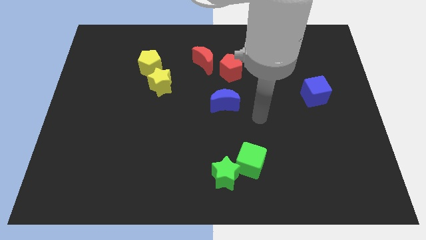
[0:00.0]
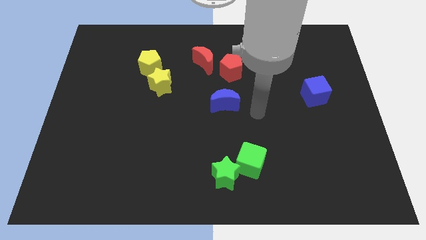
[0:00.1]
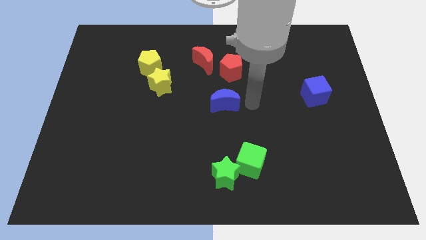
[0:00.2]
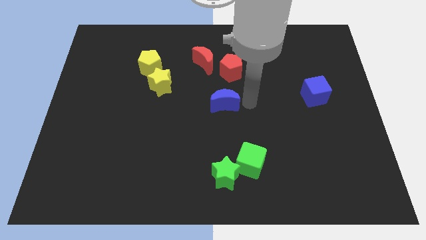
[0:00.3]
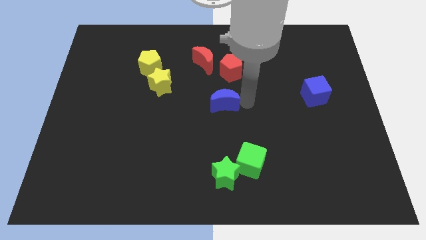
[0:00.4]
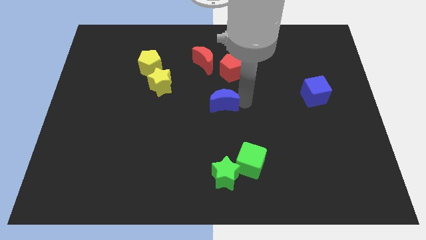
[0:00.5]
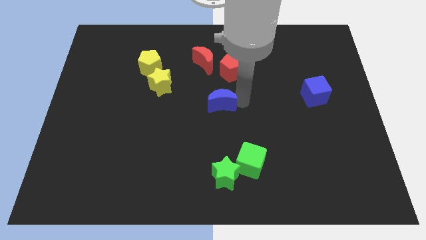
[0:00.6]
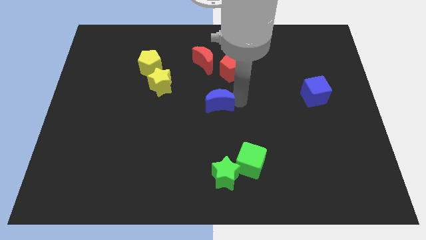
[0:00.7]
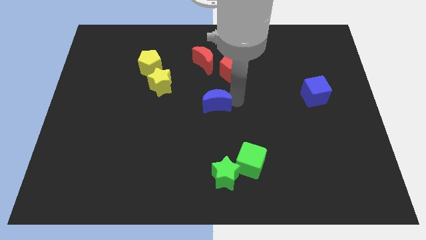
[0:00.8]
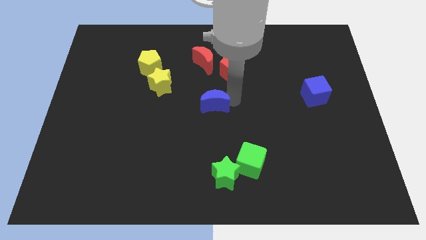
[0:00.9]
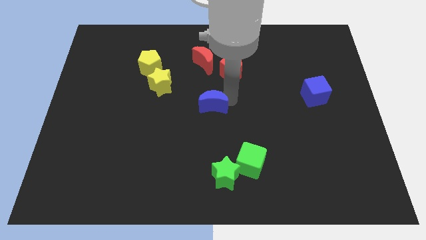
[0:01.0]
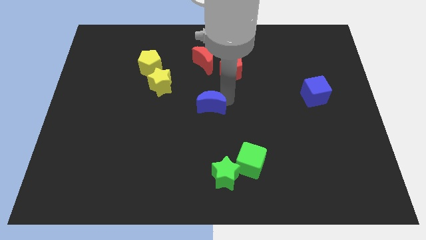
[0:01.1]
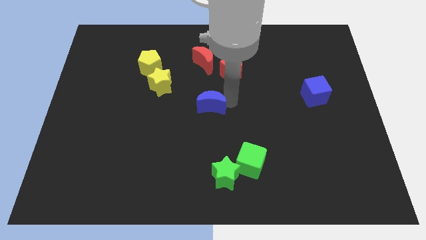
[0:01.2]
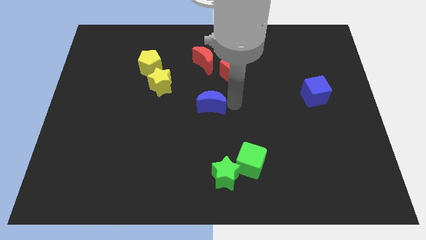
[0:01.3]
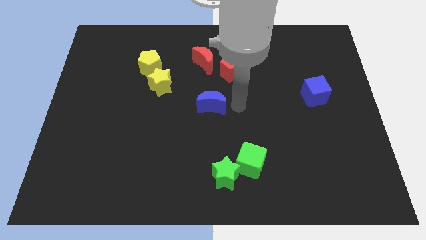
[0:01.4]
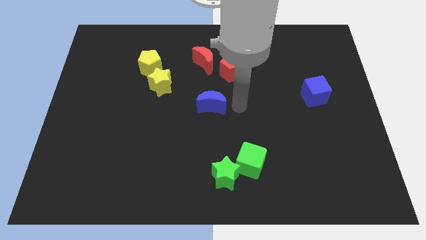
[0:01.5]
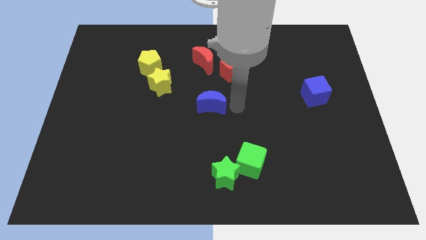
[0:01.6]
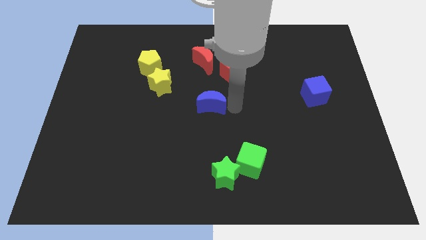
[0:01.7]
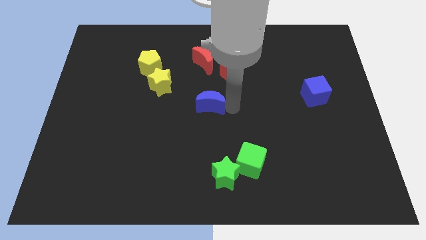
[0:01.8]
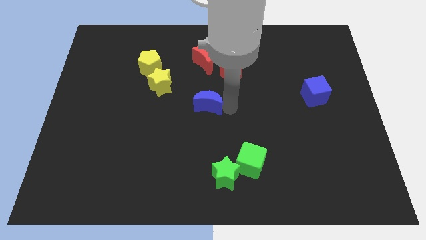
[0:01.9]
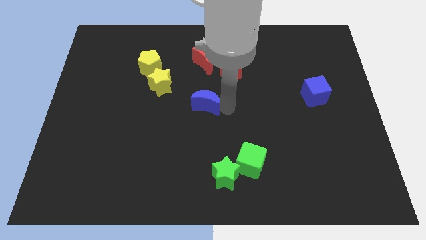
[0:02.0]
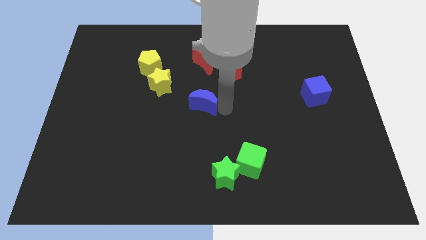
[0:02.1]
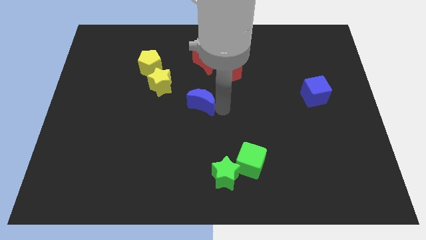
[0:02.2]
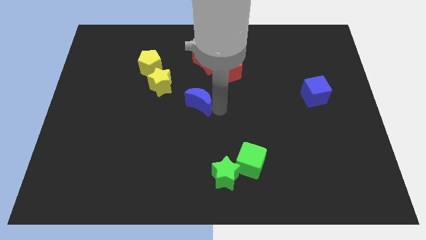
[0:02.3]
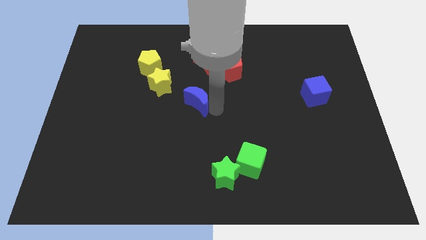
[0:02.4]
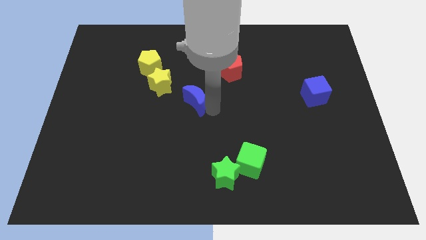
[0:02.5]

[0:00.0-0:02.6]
slightly push the blue moon left

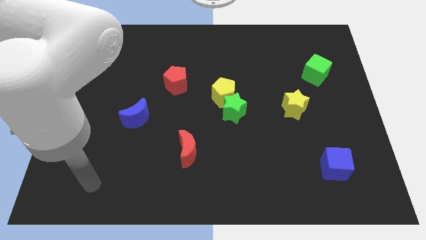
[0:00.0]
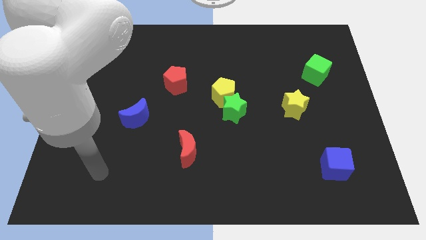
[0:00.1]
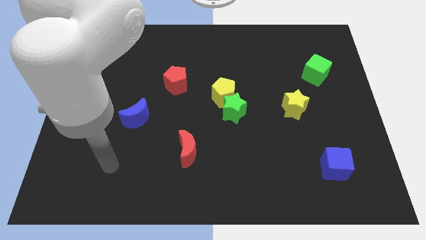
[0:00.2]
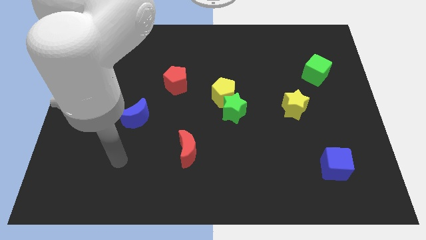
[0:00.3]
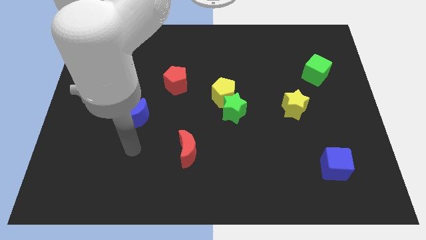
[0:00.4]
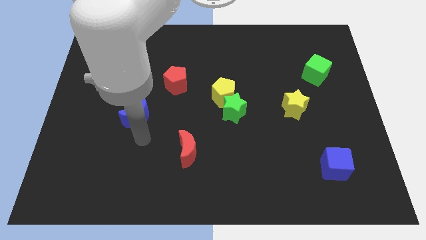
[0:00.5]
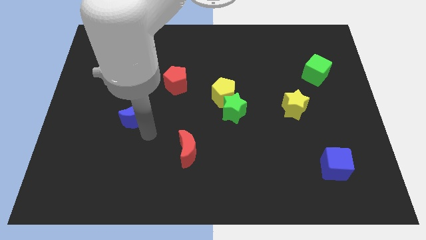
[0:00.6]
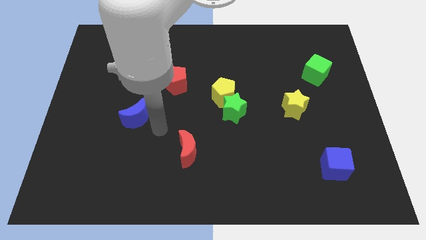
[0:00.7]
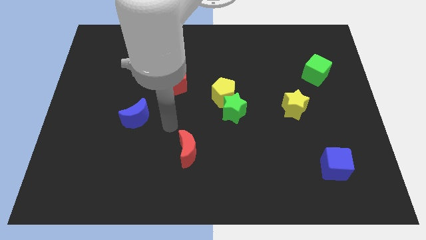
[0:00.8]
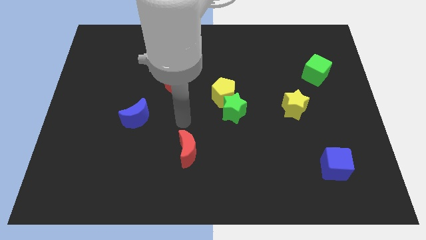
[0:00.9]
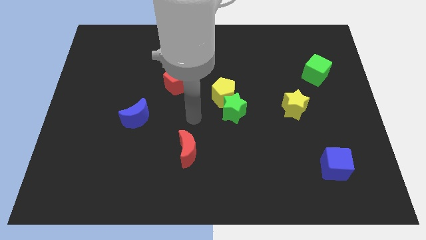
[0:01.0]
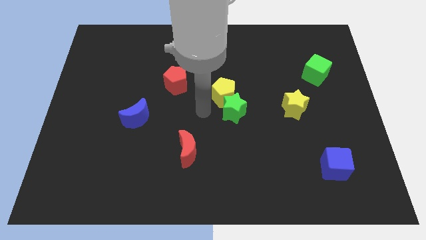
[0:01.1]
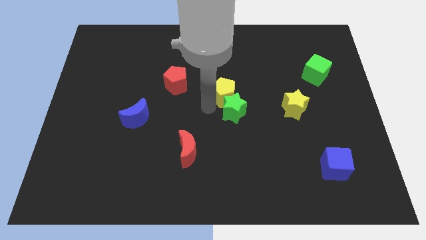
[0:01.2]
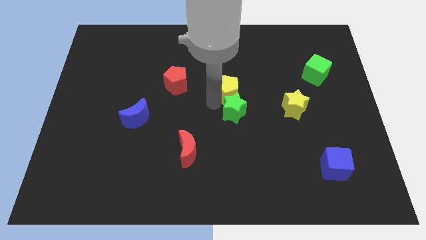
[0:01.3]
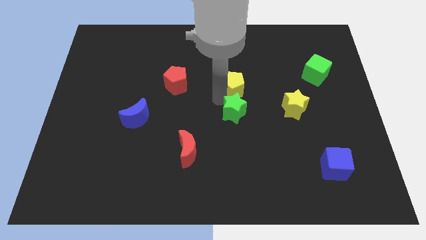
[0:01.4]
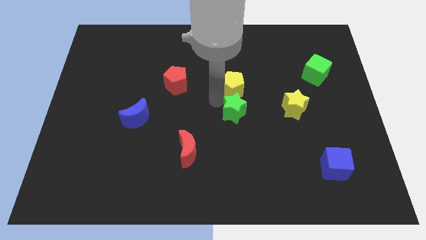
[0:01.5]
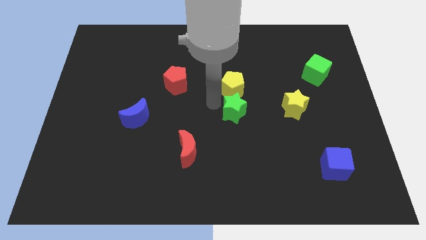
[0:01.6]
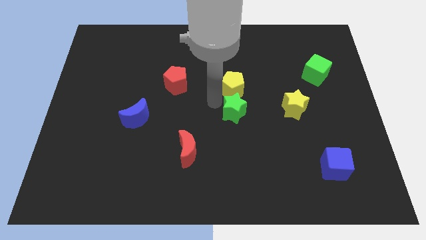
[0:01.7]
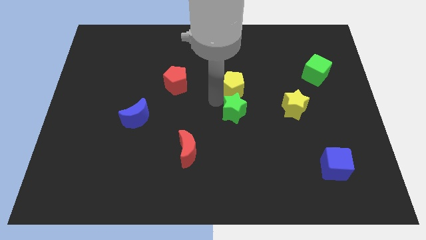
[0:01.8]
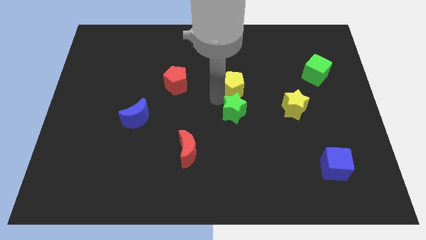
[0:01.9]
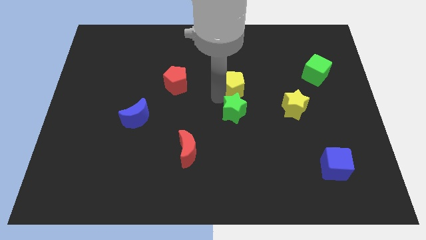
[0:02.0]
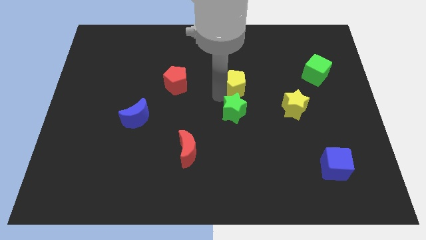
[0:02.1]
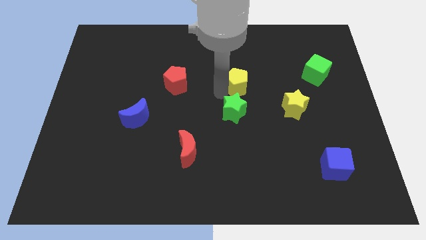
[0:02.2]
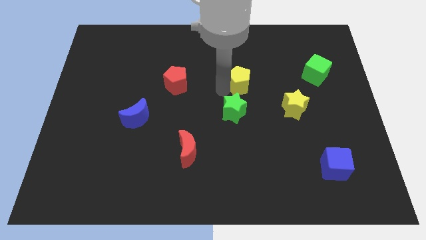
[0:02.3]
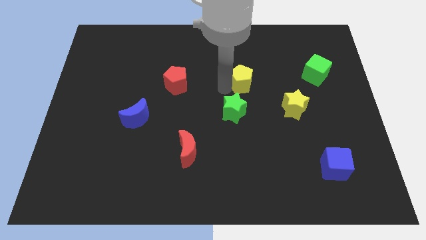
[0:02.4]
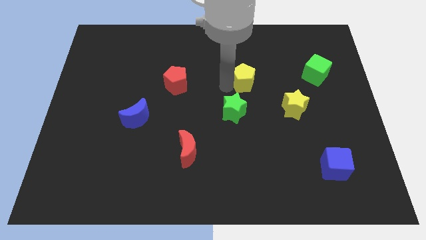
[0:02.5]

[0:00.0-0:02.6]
slightly move the yellow pentagon up and then right

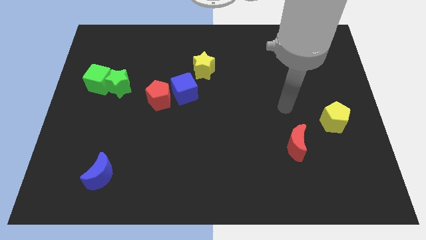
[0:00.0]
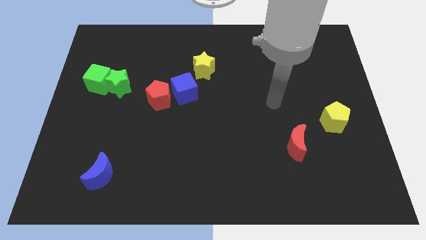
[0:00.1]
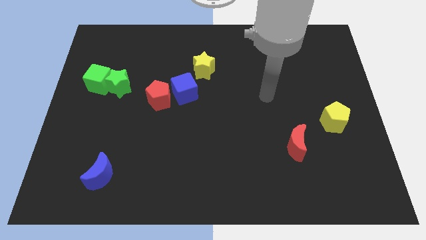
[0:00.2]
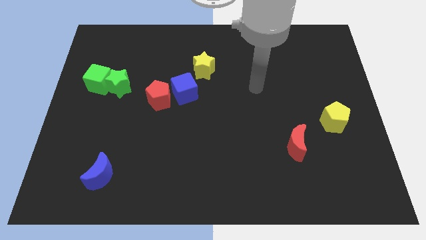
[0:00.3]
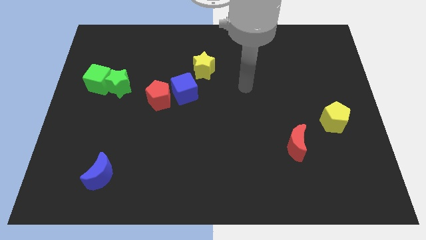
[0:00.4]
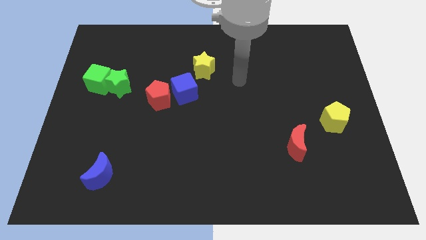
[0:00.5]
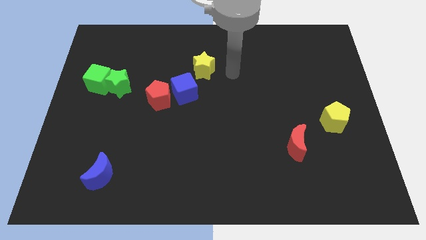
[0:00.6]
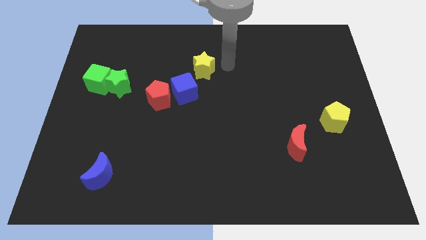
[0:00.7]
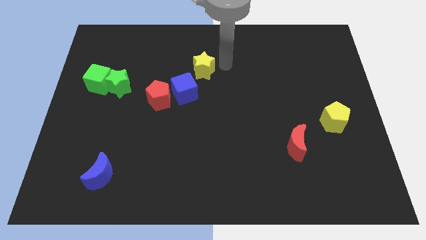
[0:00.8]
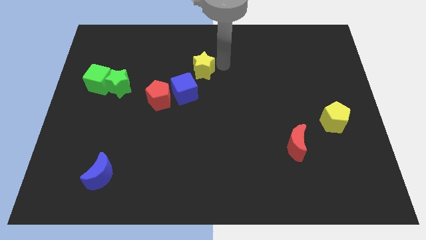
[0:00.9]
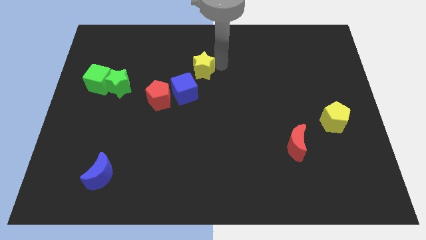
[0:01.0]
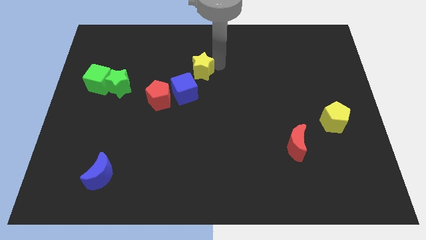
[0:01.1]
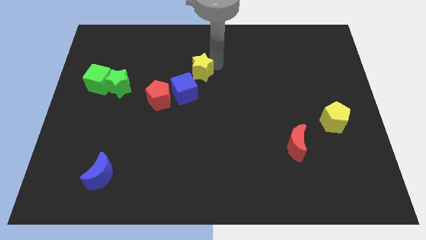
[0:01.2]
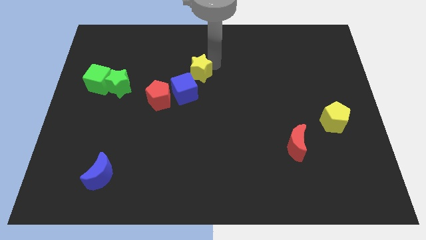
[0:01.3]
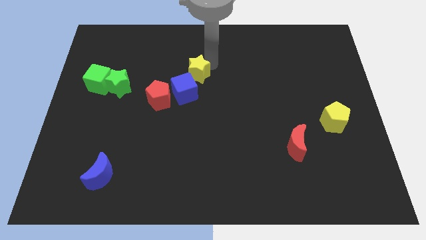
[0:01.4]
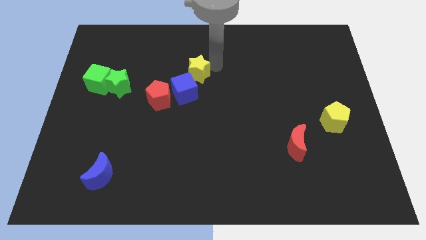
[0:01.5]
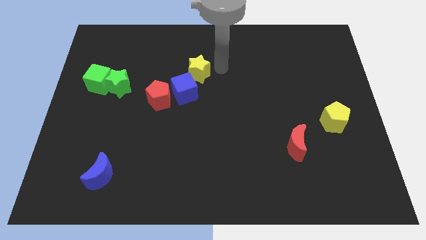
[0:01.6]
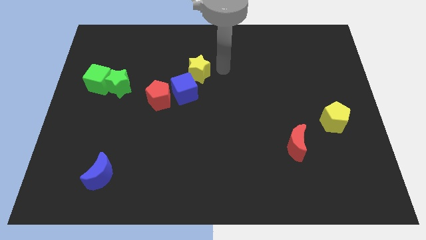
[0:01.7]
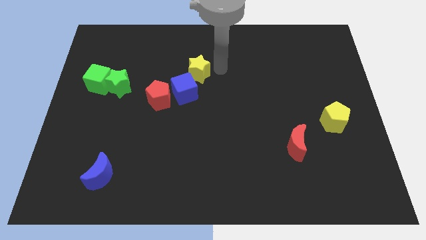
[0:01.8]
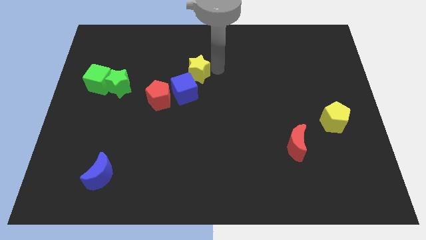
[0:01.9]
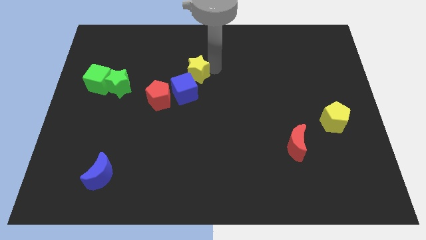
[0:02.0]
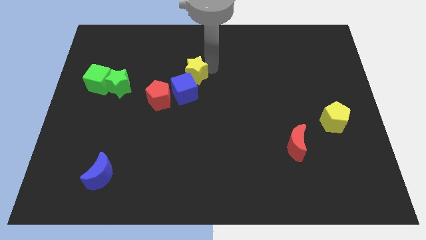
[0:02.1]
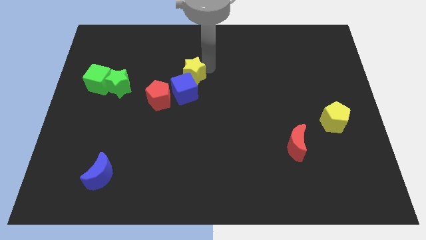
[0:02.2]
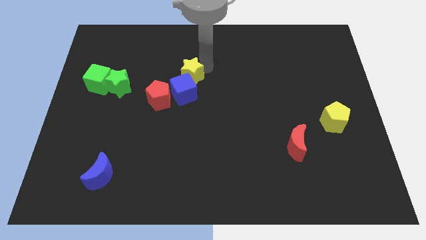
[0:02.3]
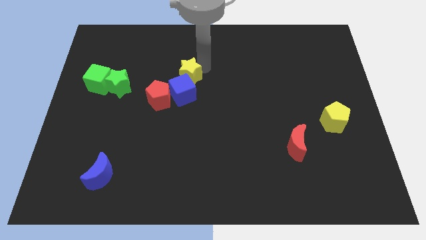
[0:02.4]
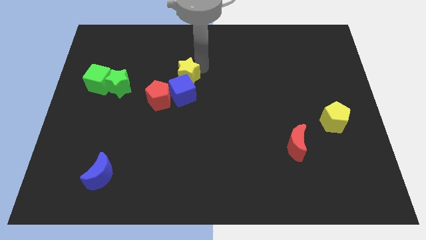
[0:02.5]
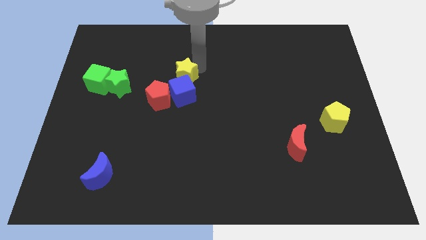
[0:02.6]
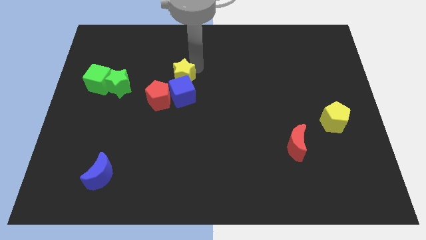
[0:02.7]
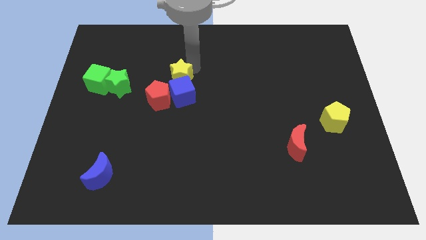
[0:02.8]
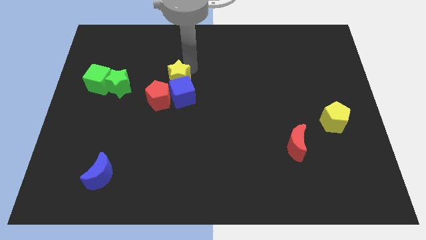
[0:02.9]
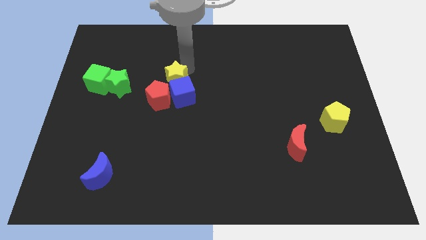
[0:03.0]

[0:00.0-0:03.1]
push the yellow star a little bit downwards and then to the left
